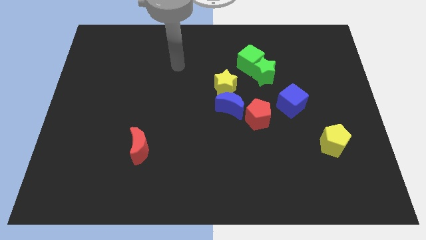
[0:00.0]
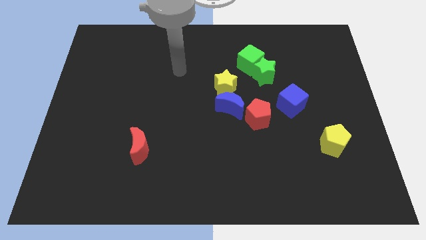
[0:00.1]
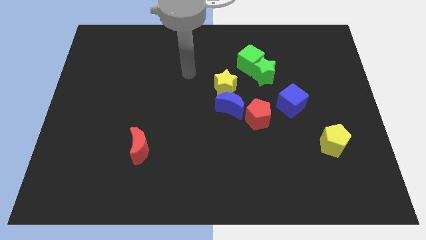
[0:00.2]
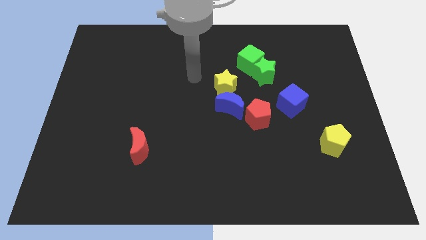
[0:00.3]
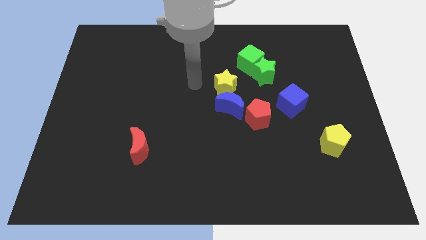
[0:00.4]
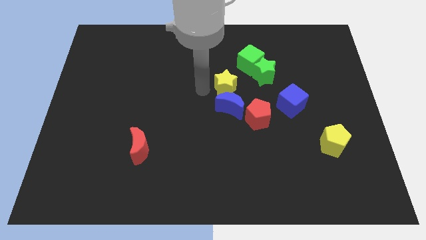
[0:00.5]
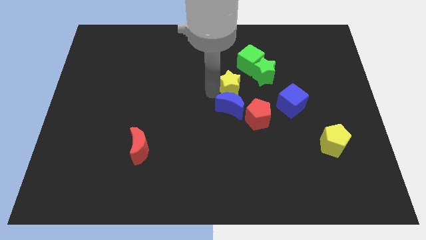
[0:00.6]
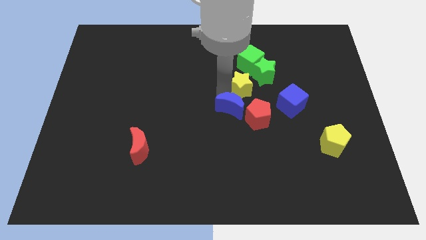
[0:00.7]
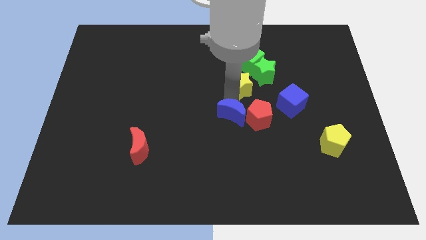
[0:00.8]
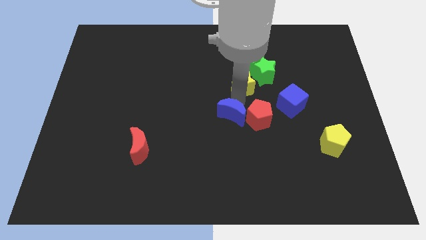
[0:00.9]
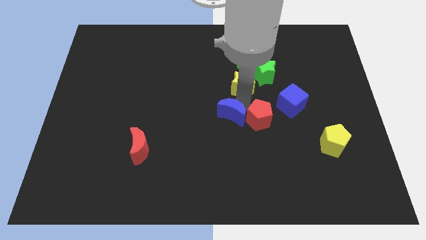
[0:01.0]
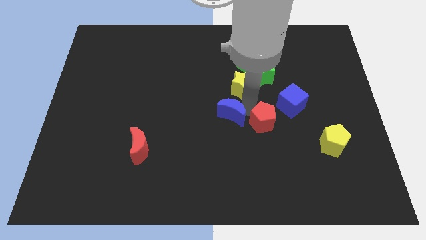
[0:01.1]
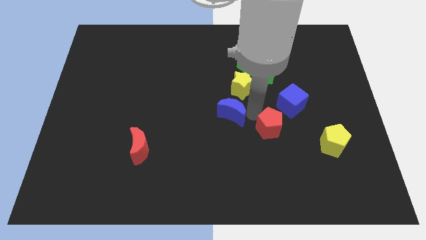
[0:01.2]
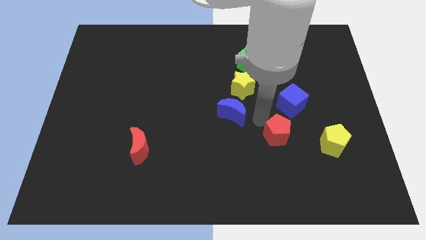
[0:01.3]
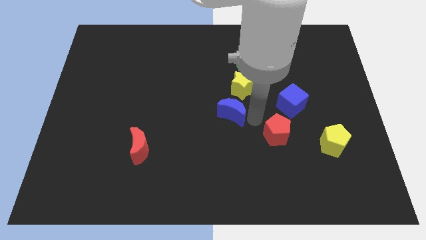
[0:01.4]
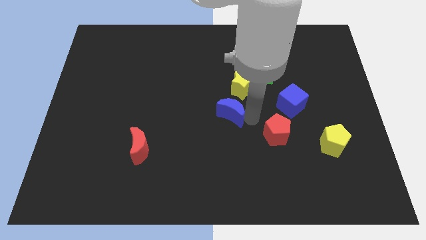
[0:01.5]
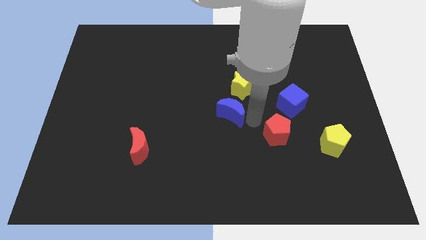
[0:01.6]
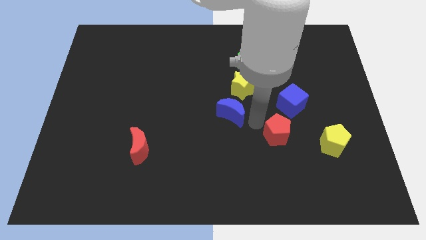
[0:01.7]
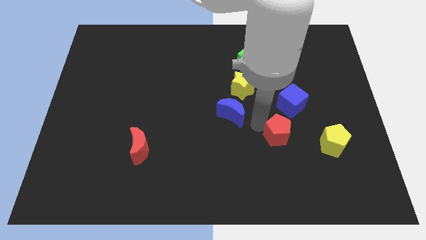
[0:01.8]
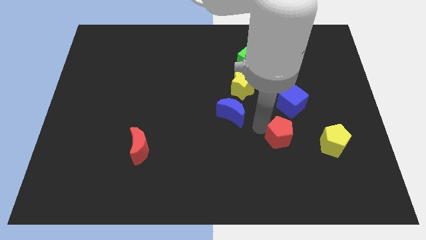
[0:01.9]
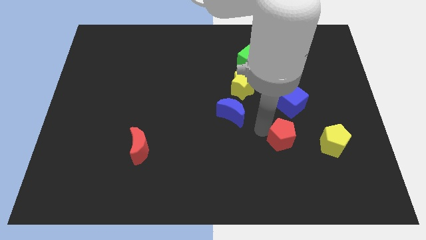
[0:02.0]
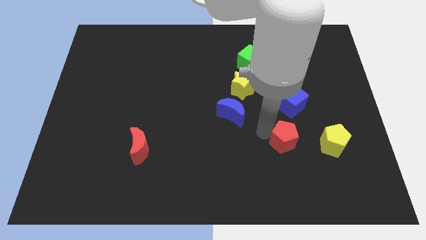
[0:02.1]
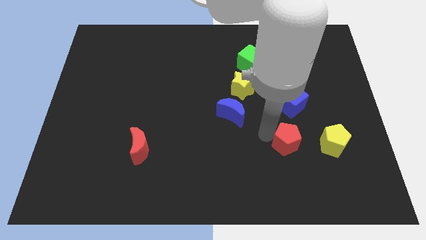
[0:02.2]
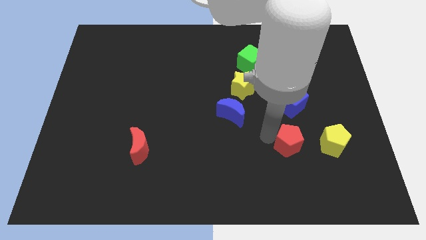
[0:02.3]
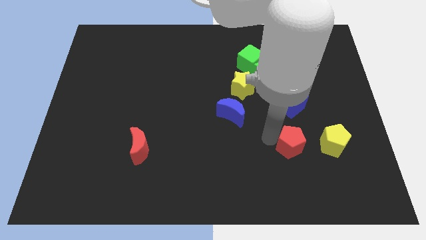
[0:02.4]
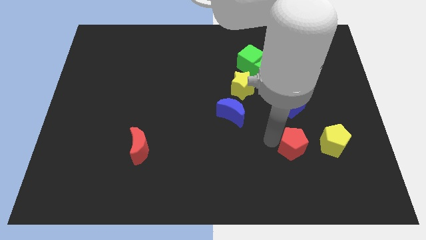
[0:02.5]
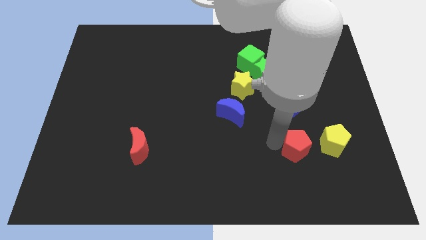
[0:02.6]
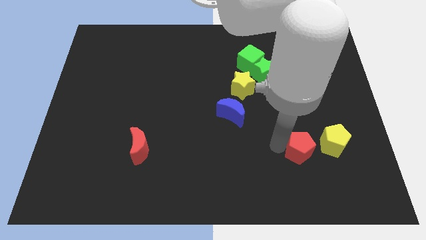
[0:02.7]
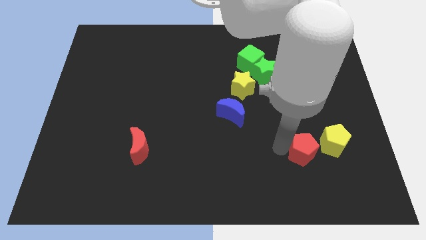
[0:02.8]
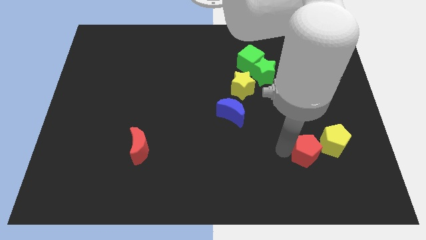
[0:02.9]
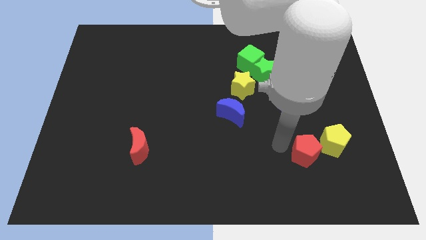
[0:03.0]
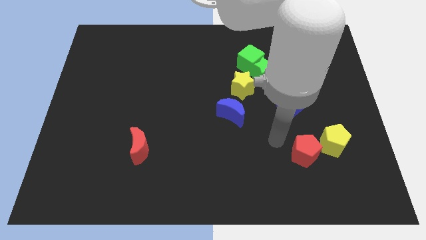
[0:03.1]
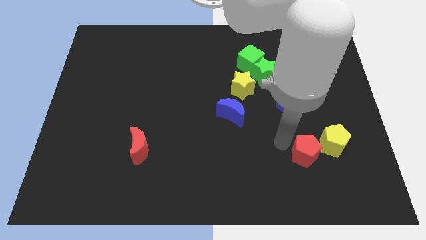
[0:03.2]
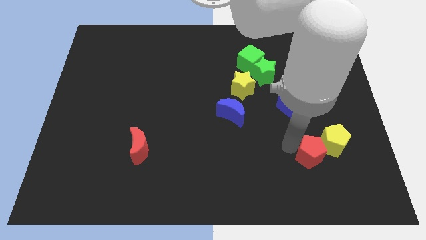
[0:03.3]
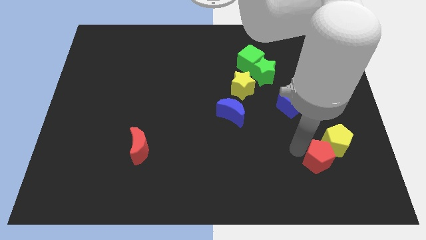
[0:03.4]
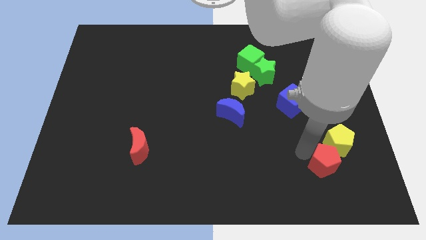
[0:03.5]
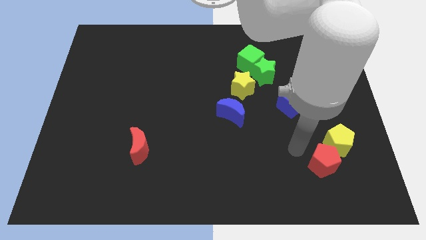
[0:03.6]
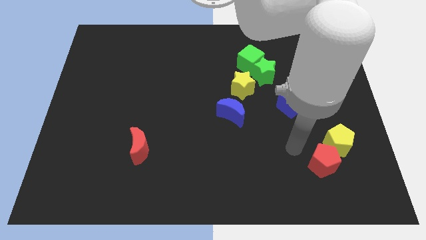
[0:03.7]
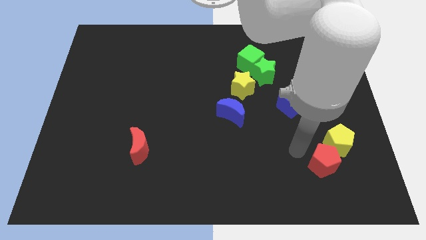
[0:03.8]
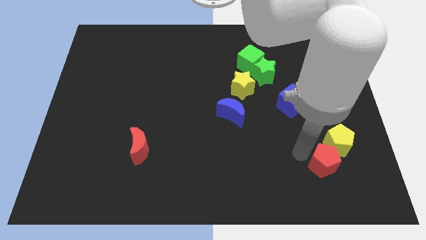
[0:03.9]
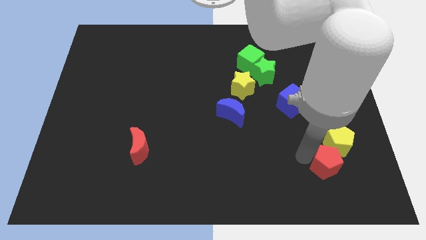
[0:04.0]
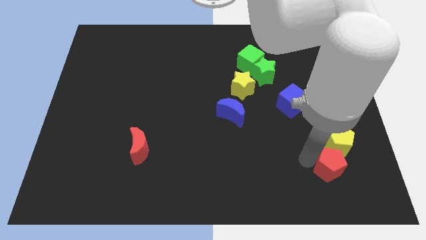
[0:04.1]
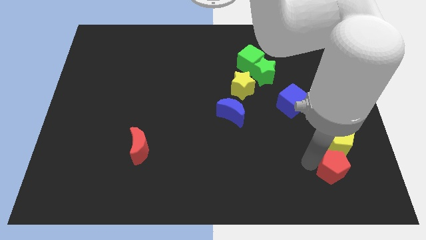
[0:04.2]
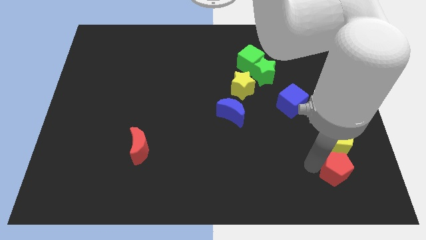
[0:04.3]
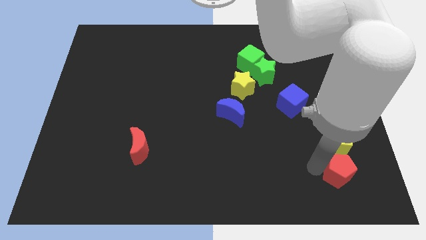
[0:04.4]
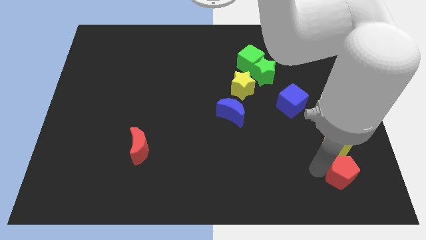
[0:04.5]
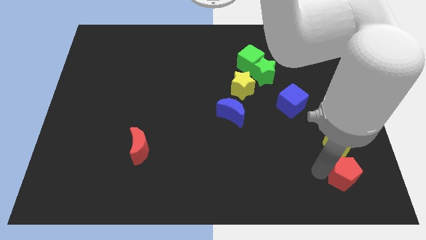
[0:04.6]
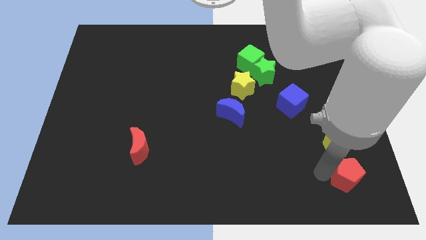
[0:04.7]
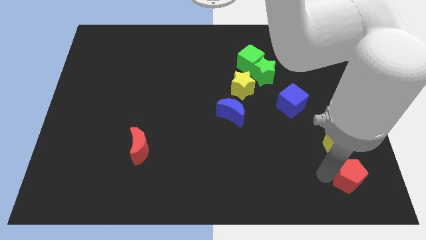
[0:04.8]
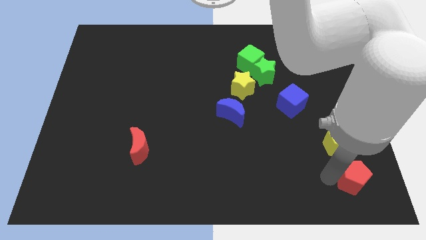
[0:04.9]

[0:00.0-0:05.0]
slide the red pentagon to the bottom right corner

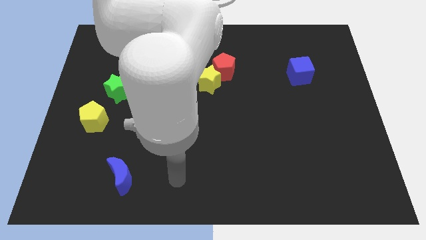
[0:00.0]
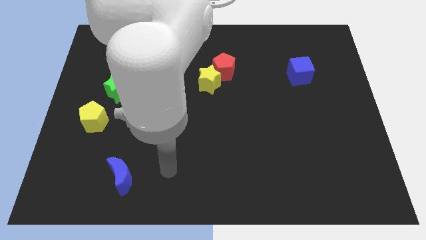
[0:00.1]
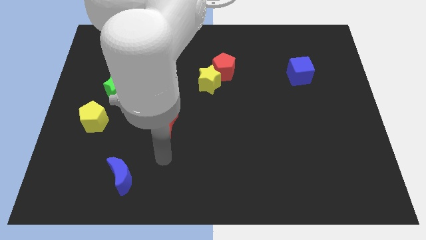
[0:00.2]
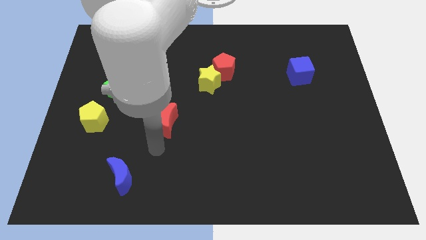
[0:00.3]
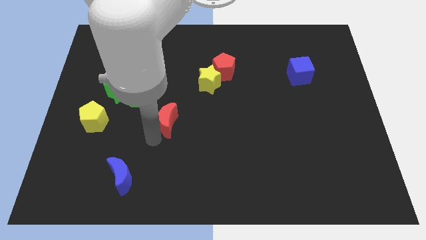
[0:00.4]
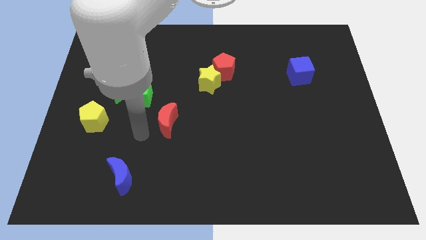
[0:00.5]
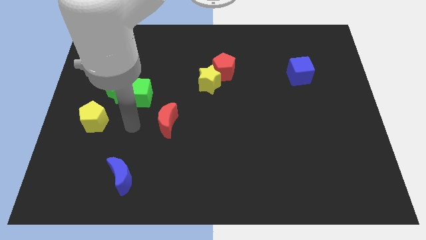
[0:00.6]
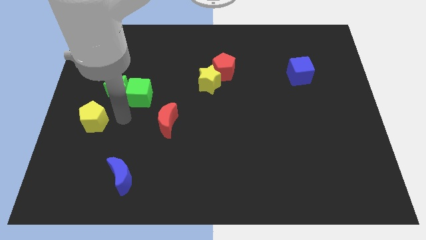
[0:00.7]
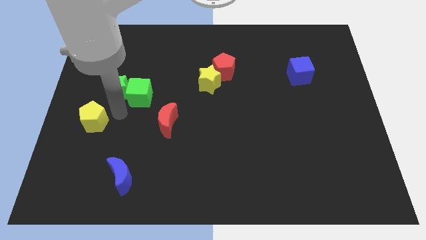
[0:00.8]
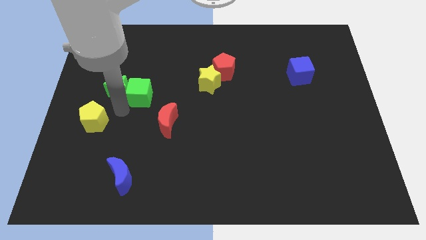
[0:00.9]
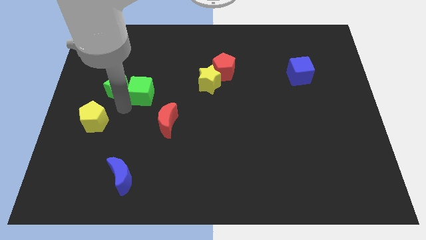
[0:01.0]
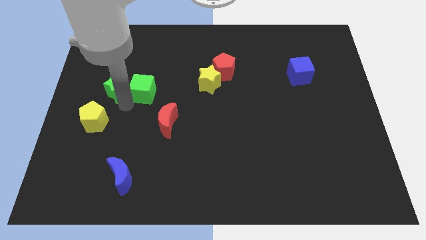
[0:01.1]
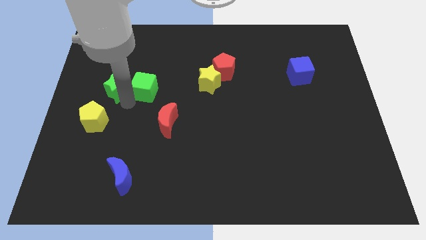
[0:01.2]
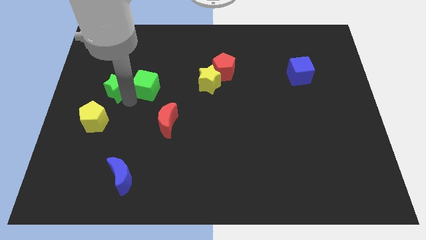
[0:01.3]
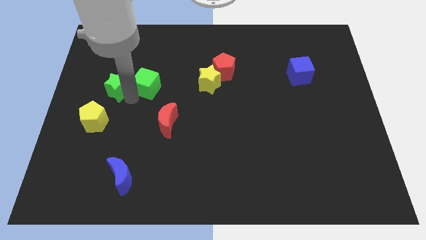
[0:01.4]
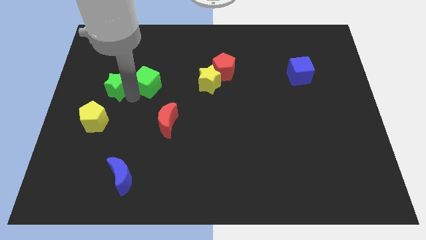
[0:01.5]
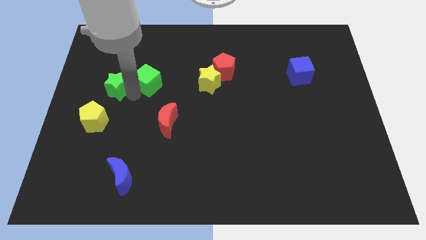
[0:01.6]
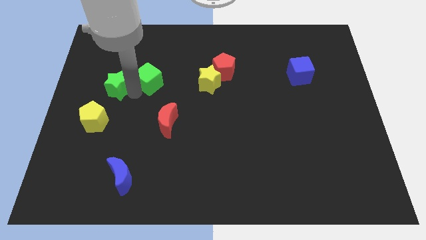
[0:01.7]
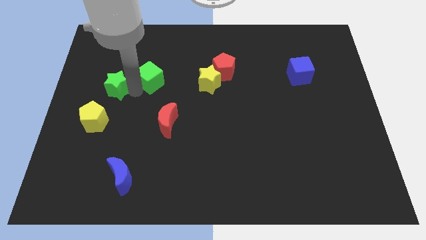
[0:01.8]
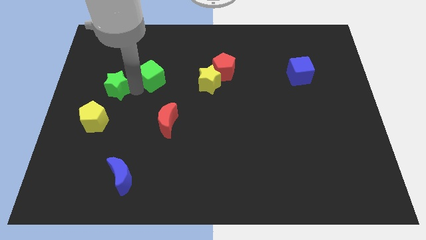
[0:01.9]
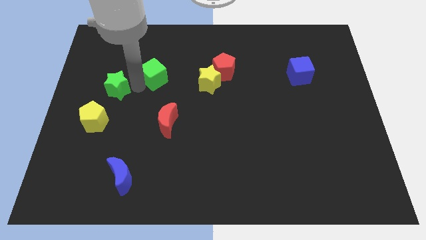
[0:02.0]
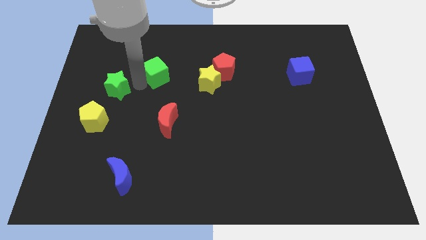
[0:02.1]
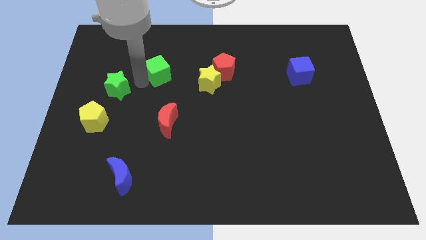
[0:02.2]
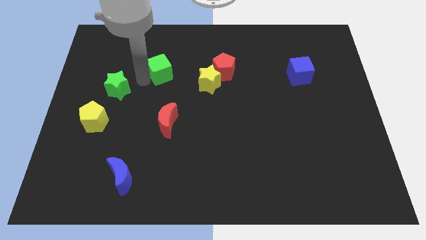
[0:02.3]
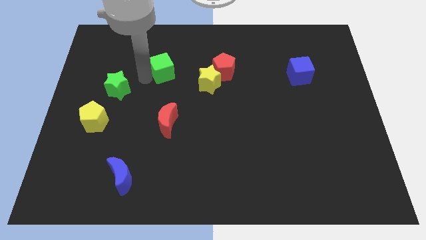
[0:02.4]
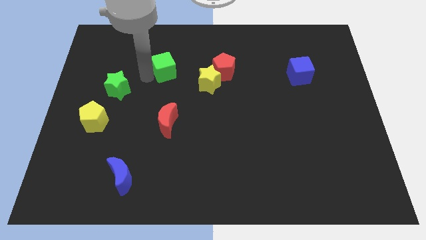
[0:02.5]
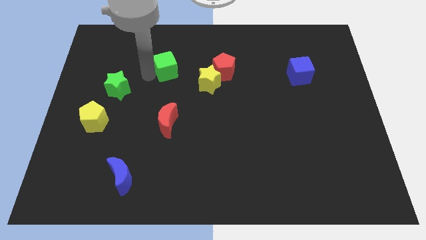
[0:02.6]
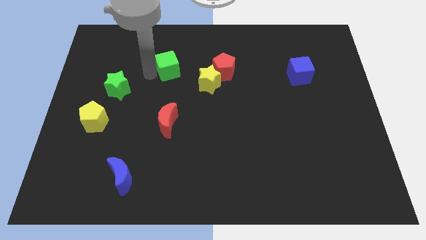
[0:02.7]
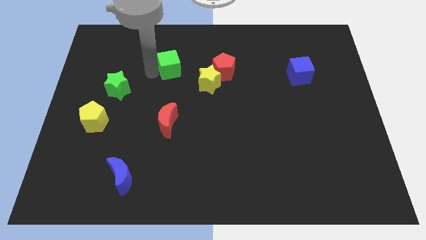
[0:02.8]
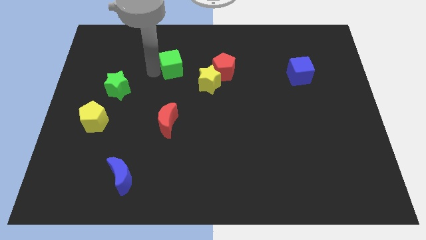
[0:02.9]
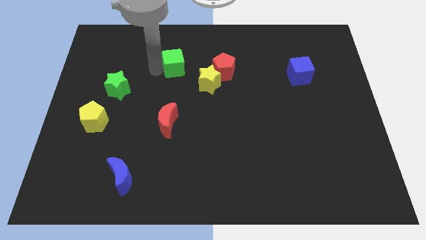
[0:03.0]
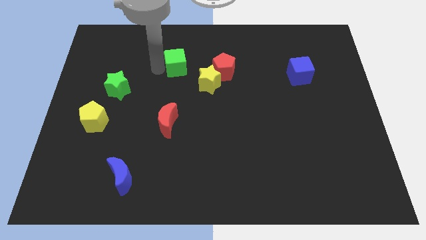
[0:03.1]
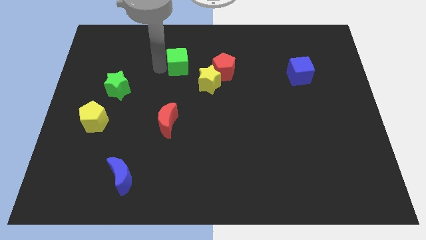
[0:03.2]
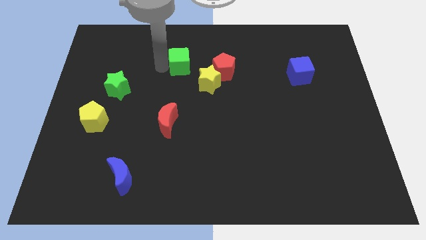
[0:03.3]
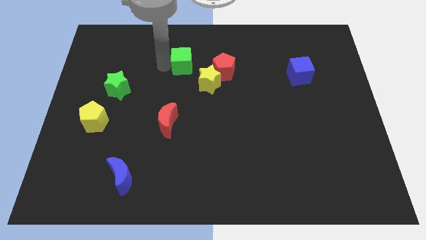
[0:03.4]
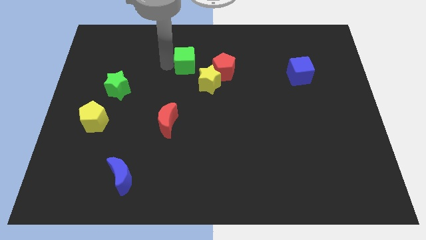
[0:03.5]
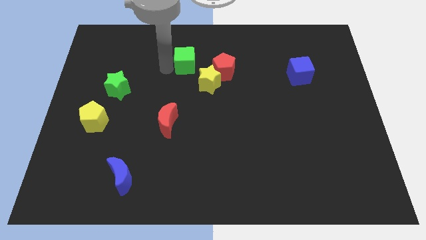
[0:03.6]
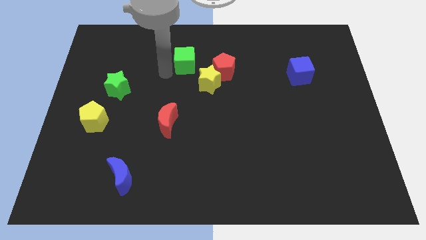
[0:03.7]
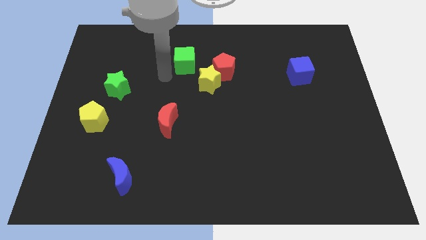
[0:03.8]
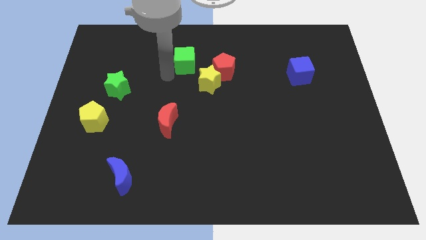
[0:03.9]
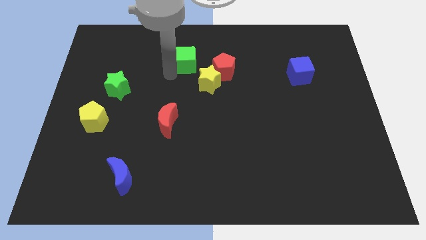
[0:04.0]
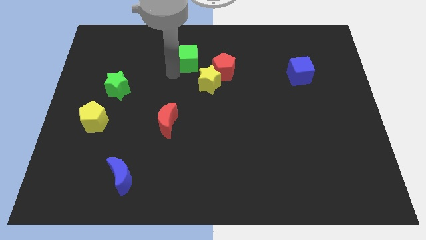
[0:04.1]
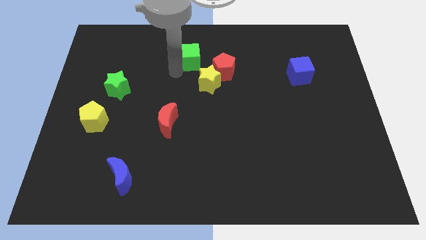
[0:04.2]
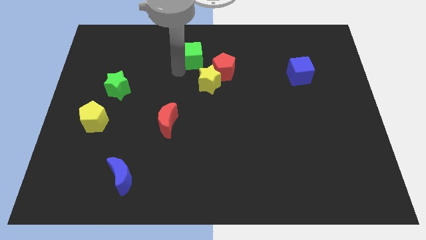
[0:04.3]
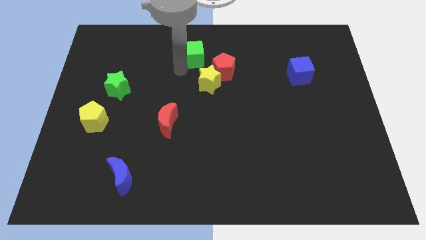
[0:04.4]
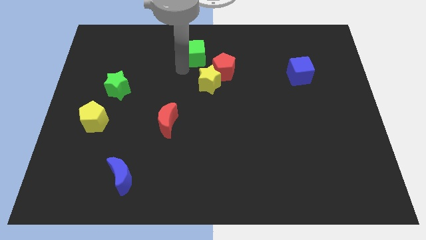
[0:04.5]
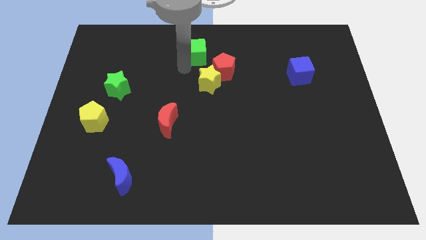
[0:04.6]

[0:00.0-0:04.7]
push the green cube to the towards your base
